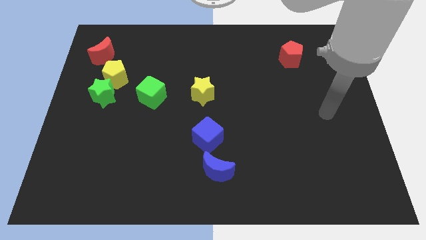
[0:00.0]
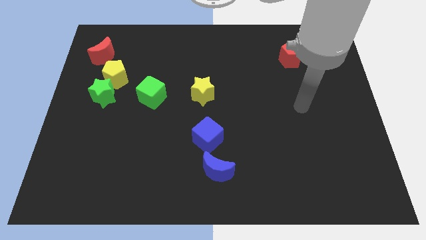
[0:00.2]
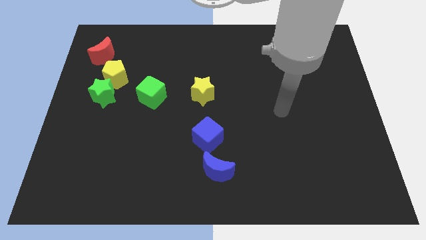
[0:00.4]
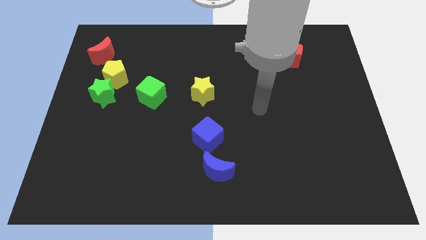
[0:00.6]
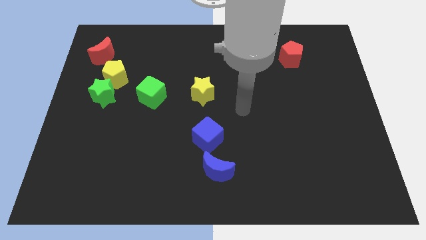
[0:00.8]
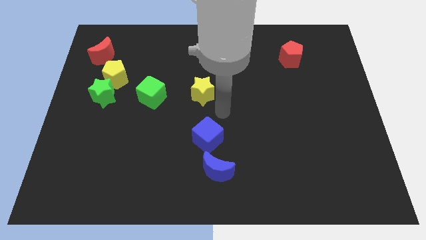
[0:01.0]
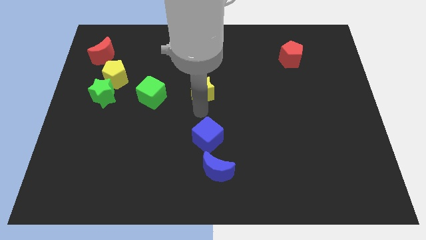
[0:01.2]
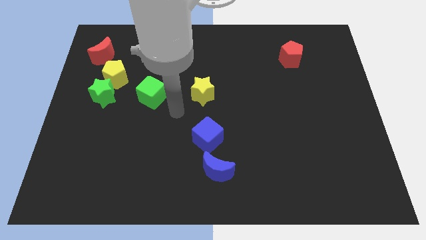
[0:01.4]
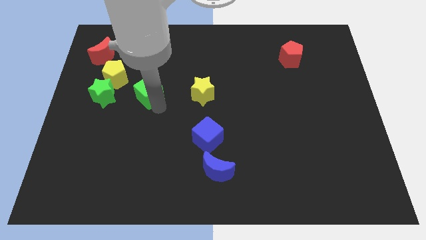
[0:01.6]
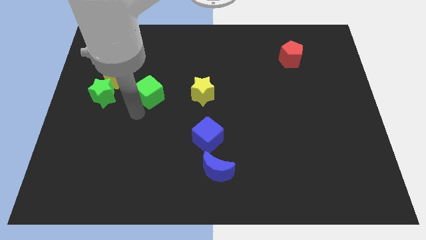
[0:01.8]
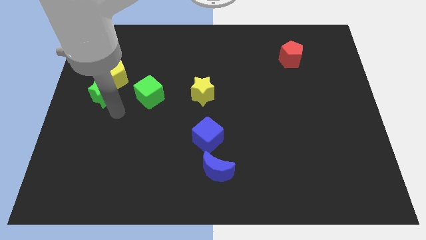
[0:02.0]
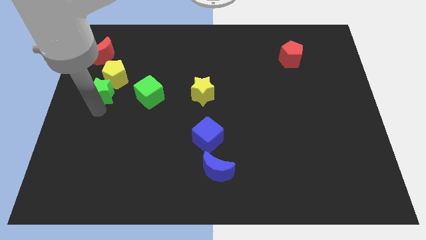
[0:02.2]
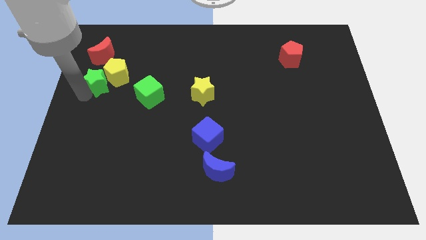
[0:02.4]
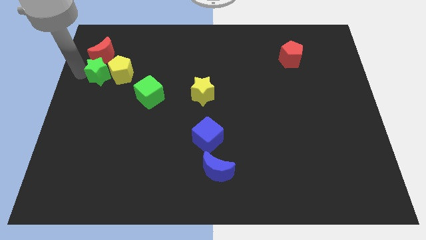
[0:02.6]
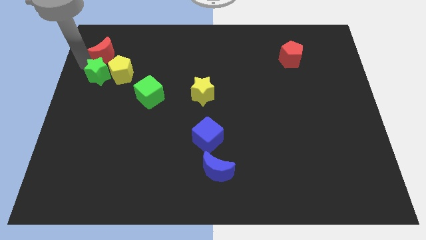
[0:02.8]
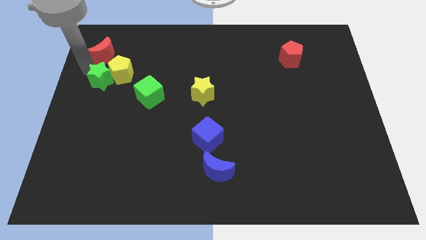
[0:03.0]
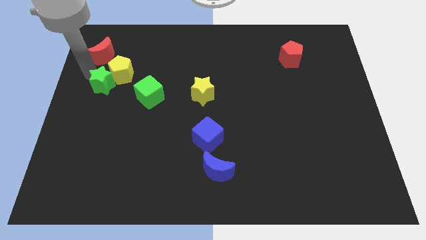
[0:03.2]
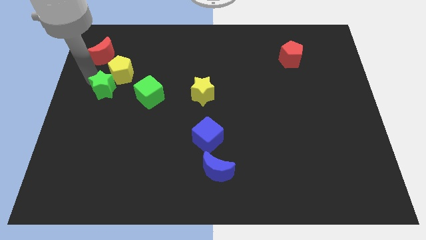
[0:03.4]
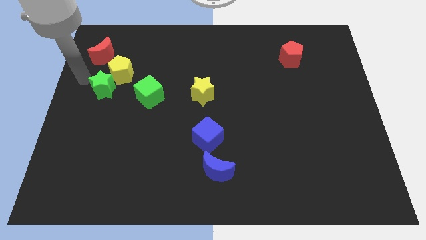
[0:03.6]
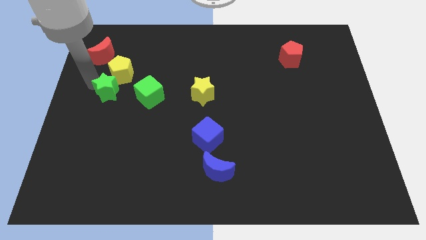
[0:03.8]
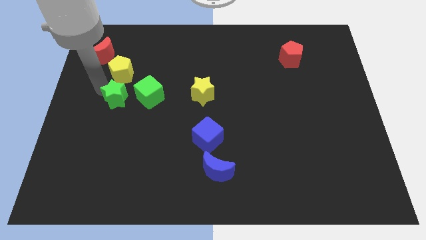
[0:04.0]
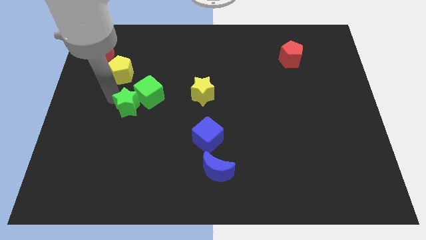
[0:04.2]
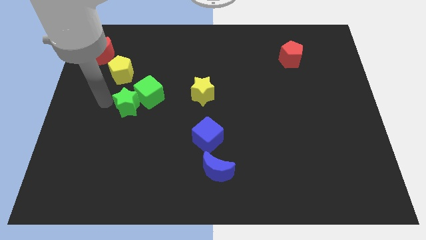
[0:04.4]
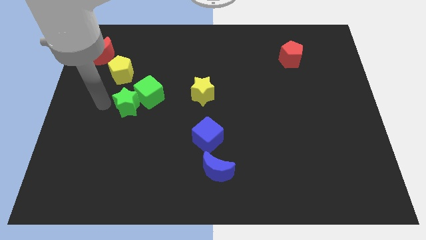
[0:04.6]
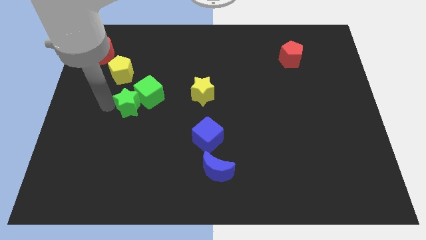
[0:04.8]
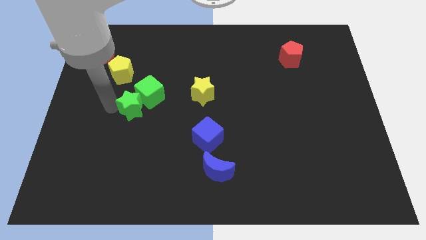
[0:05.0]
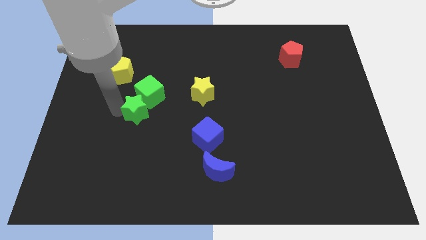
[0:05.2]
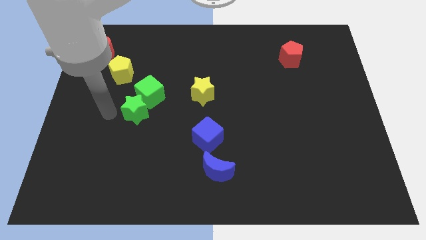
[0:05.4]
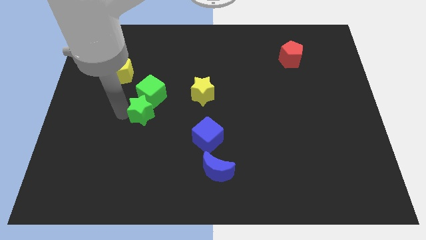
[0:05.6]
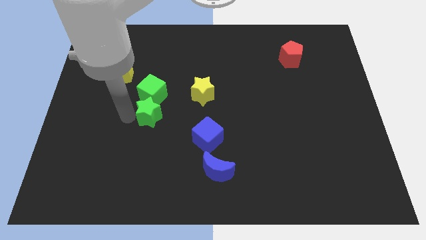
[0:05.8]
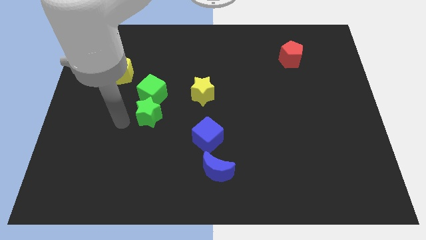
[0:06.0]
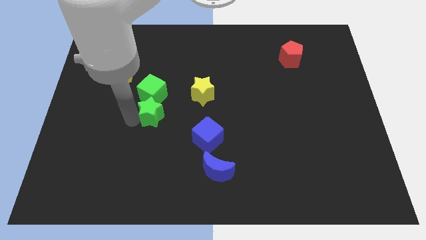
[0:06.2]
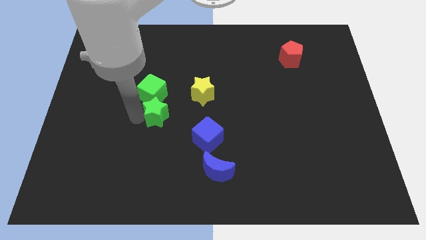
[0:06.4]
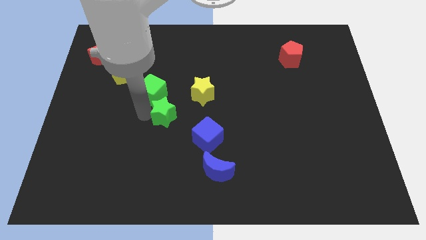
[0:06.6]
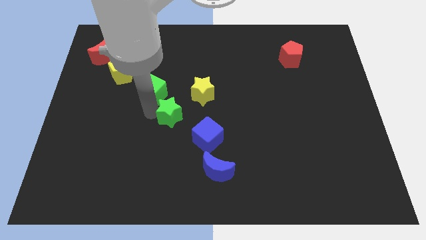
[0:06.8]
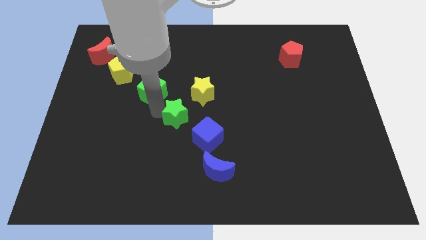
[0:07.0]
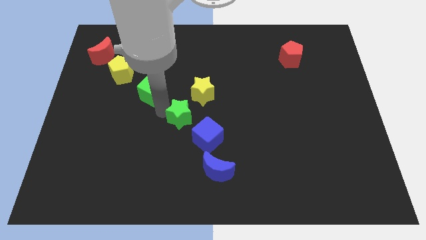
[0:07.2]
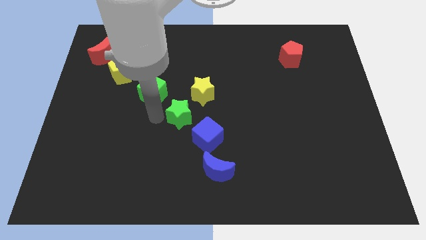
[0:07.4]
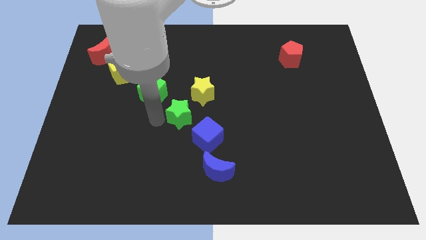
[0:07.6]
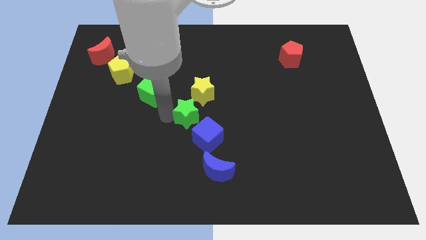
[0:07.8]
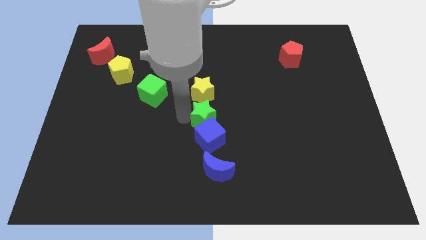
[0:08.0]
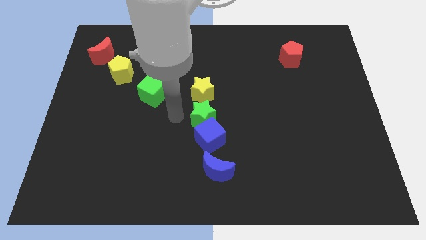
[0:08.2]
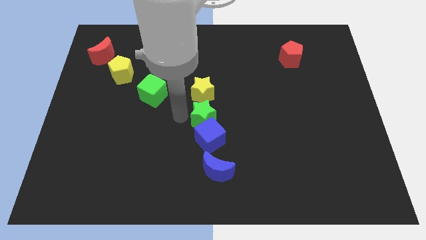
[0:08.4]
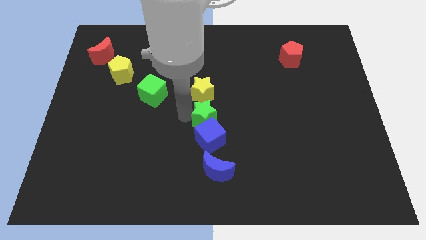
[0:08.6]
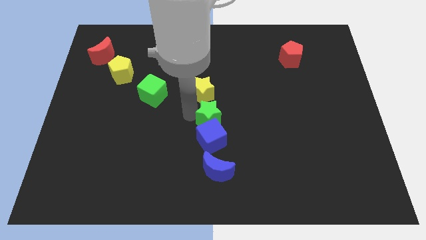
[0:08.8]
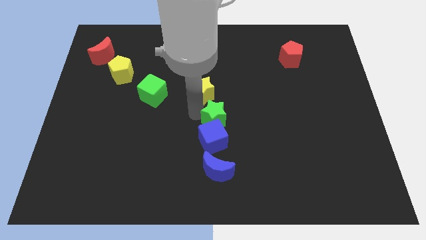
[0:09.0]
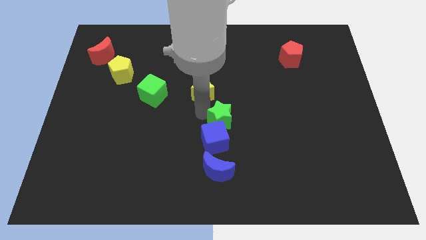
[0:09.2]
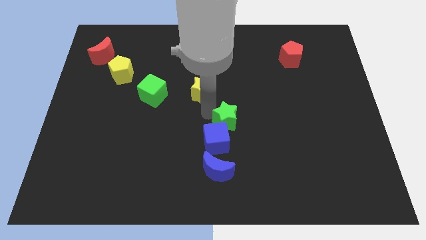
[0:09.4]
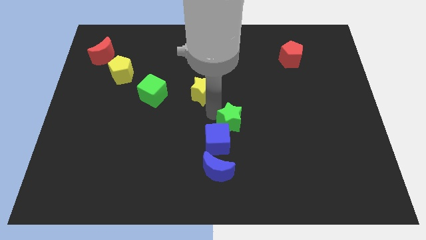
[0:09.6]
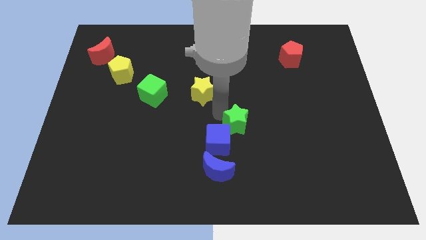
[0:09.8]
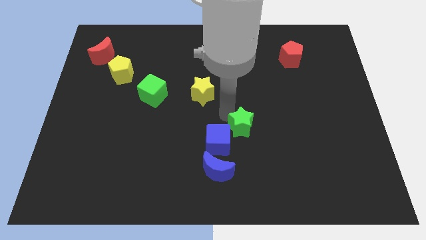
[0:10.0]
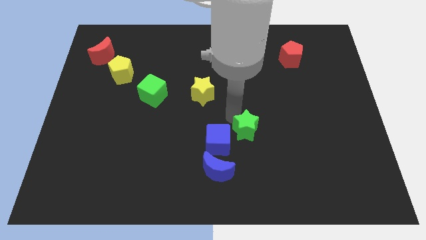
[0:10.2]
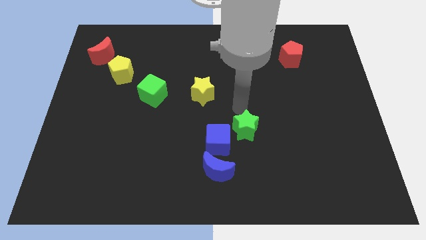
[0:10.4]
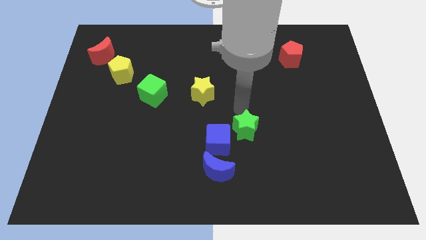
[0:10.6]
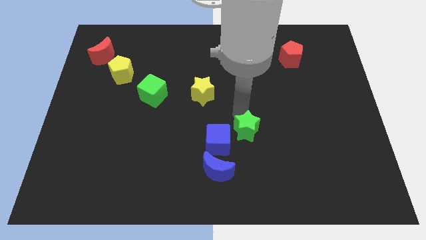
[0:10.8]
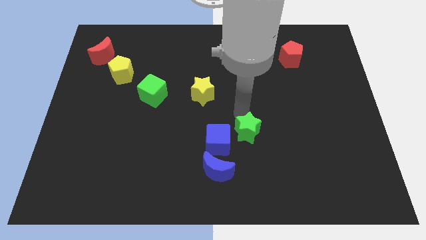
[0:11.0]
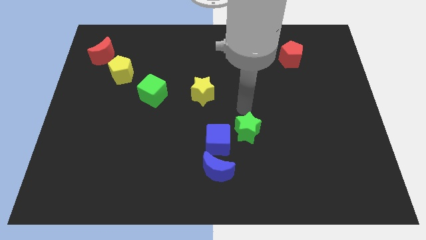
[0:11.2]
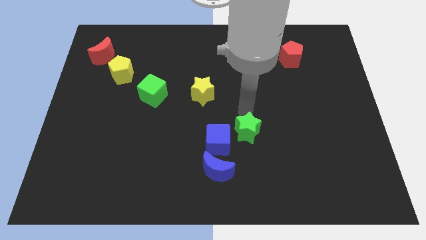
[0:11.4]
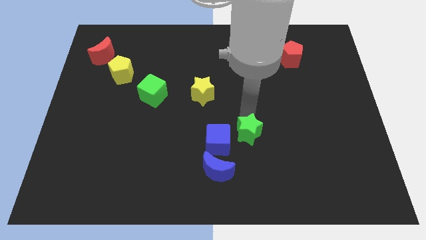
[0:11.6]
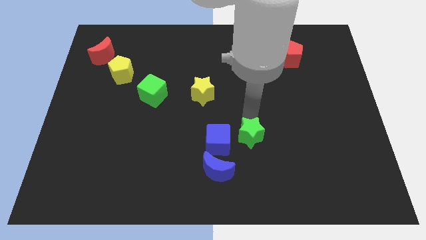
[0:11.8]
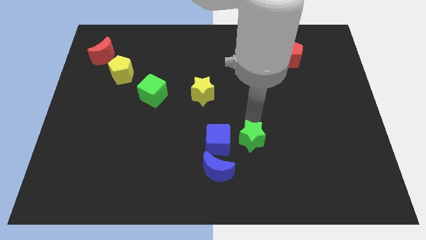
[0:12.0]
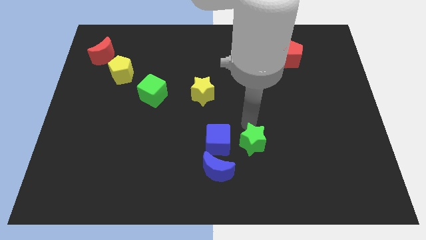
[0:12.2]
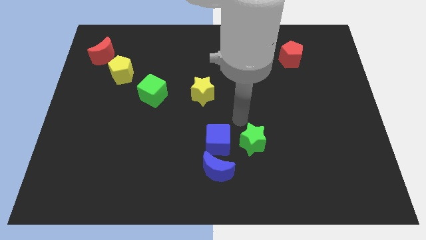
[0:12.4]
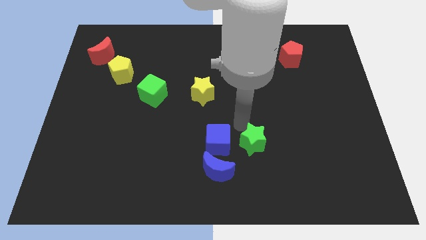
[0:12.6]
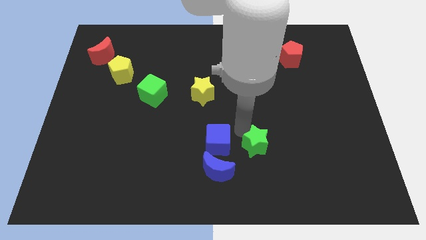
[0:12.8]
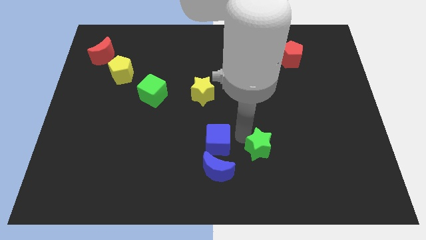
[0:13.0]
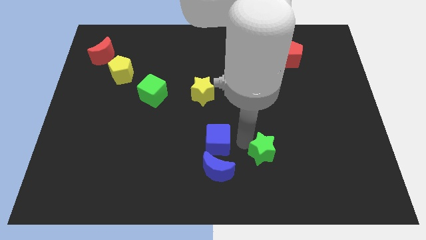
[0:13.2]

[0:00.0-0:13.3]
slide the green star to the right side of the blue moon

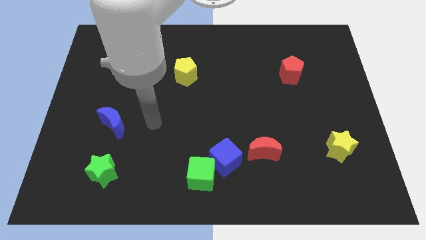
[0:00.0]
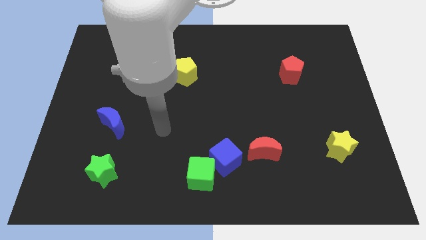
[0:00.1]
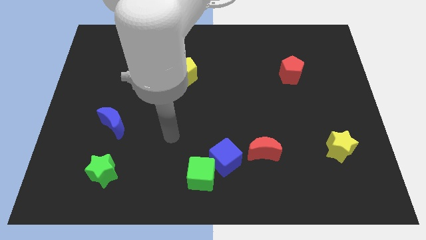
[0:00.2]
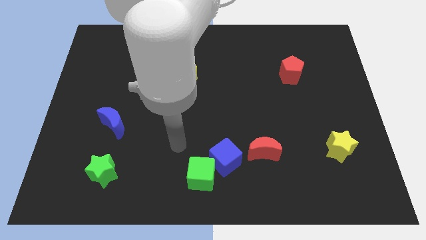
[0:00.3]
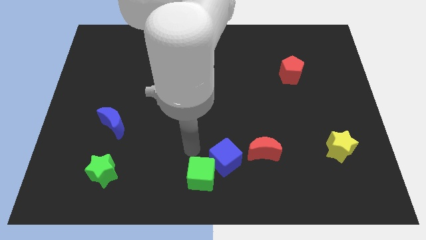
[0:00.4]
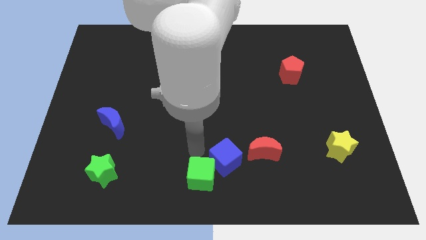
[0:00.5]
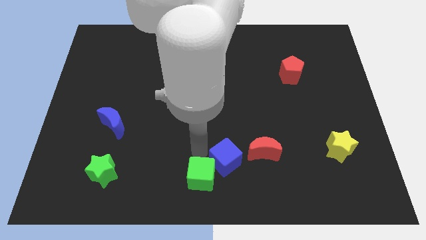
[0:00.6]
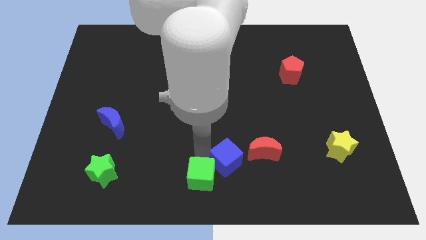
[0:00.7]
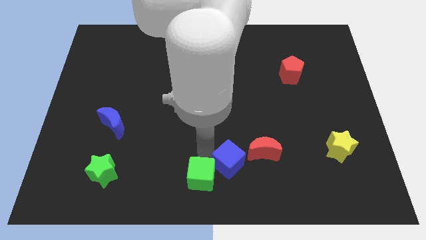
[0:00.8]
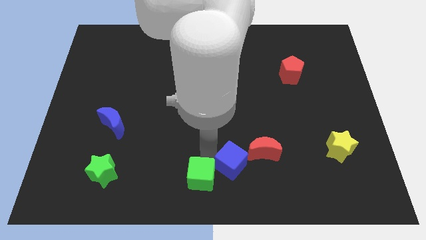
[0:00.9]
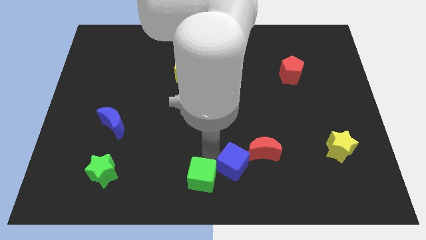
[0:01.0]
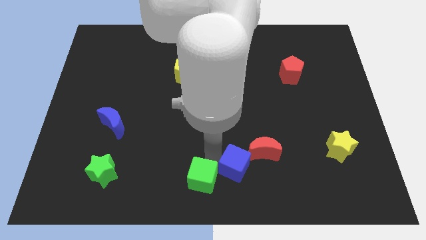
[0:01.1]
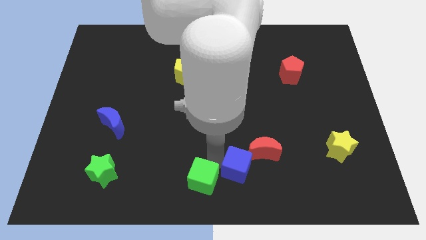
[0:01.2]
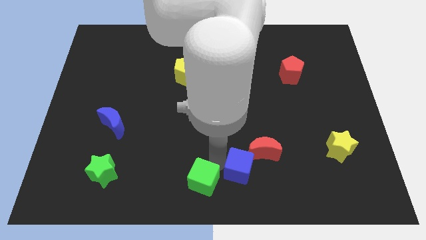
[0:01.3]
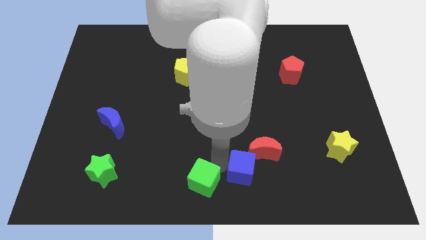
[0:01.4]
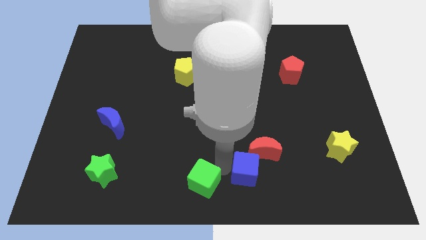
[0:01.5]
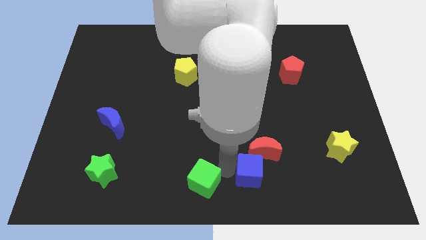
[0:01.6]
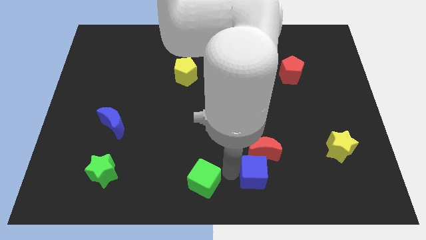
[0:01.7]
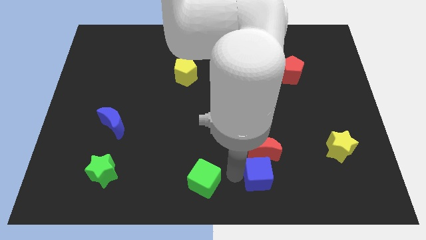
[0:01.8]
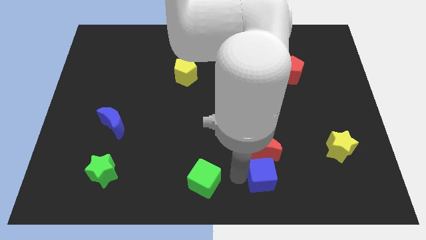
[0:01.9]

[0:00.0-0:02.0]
slide the blue cube to the bottom right of the red moon
